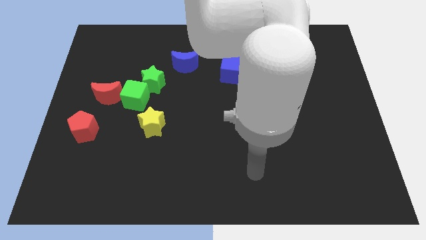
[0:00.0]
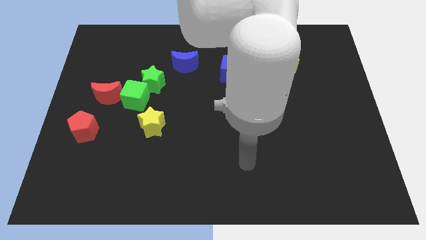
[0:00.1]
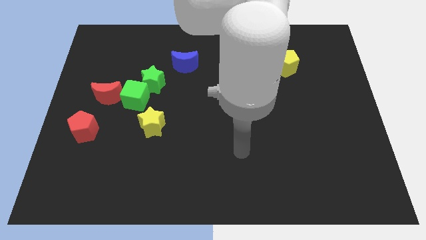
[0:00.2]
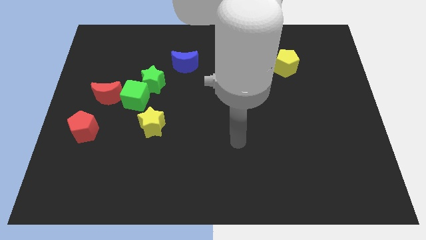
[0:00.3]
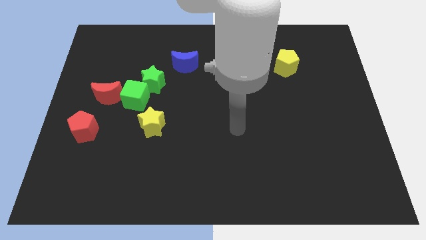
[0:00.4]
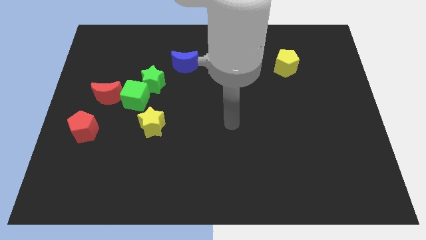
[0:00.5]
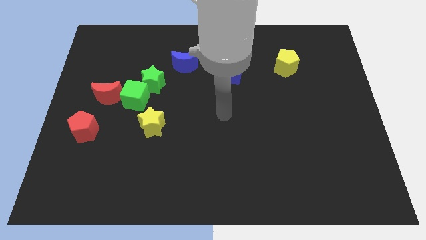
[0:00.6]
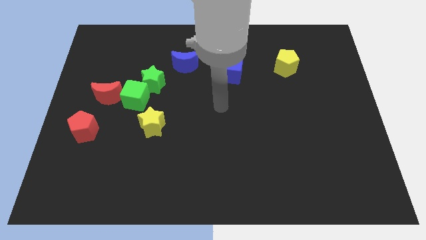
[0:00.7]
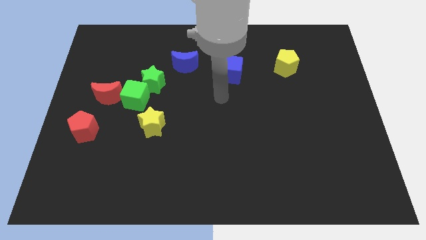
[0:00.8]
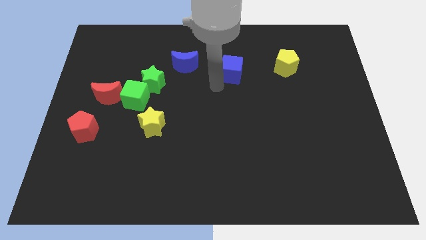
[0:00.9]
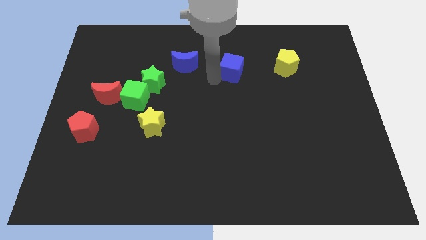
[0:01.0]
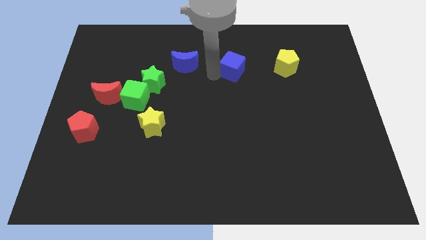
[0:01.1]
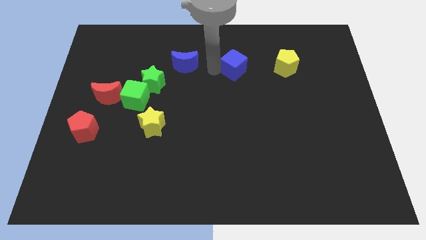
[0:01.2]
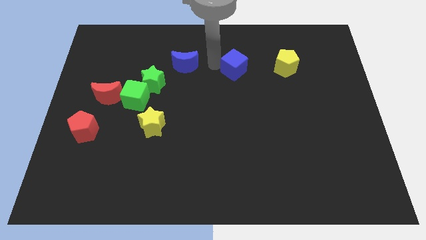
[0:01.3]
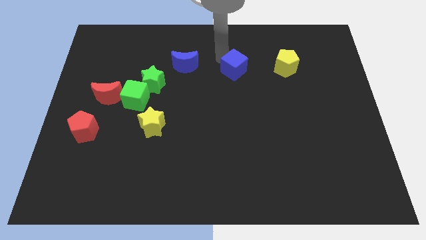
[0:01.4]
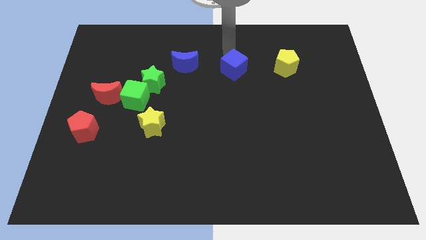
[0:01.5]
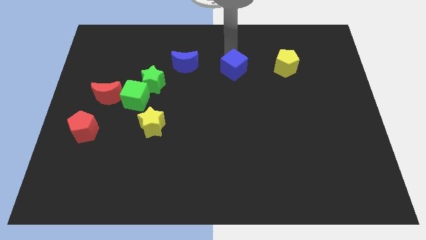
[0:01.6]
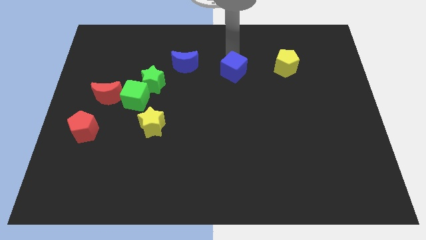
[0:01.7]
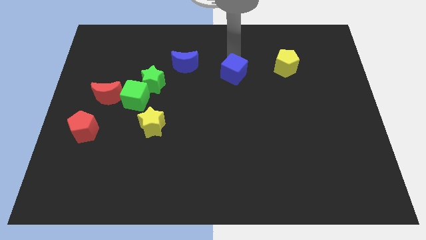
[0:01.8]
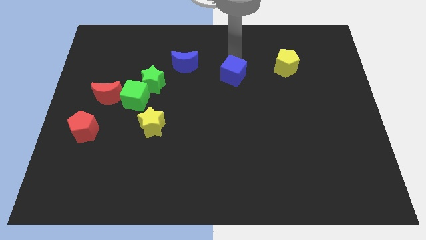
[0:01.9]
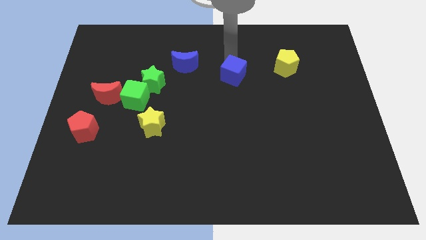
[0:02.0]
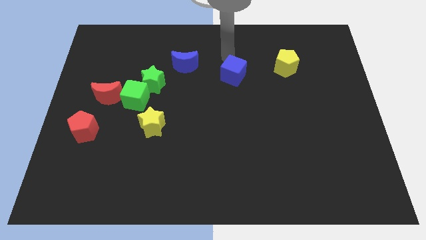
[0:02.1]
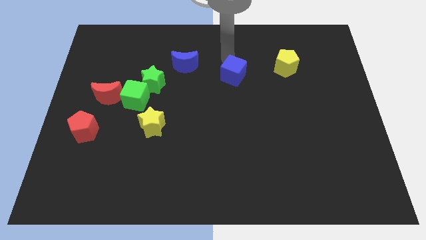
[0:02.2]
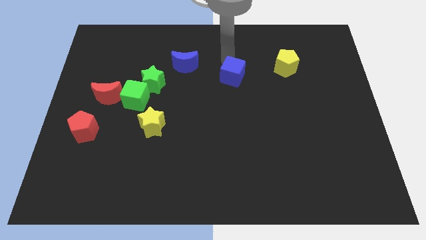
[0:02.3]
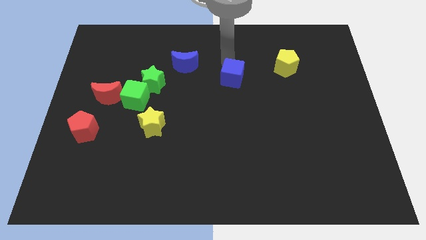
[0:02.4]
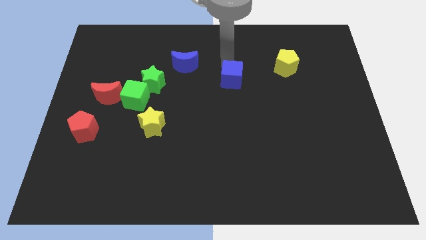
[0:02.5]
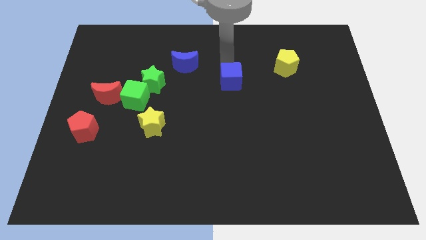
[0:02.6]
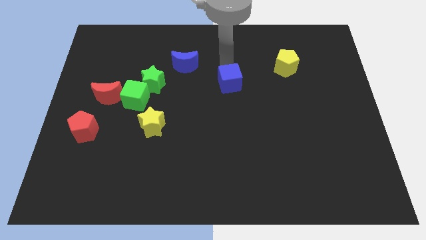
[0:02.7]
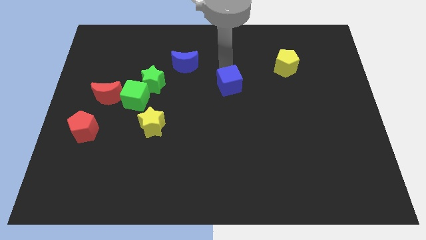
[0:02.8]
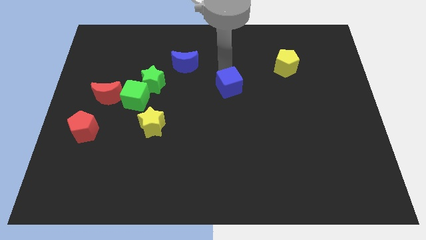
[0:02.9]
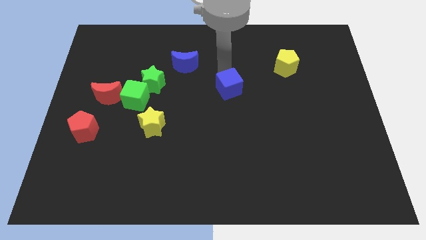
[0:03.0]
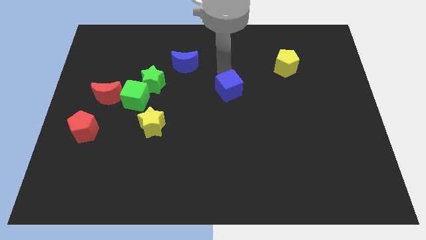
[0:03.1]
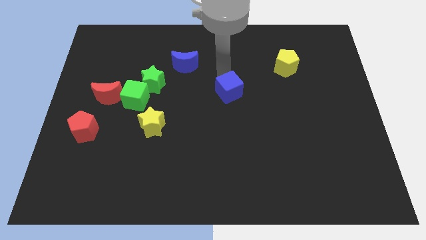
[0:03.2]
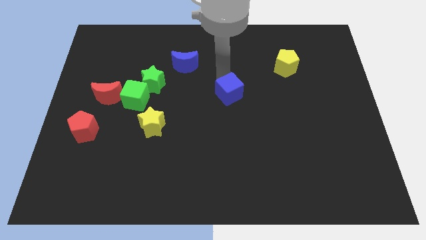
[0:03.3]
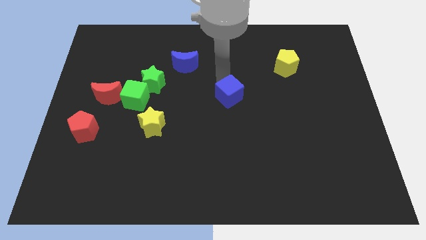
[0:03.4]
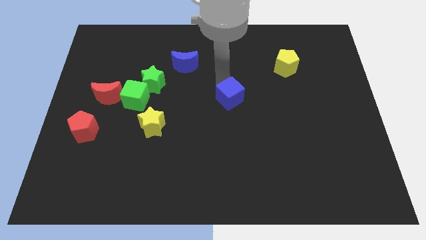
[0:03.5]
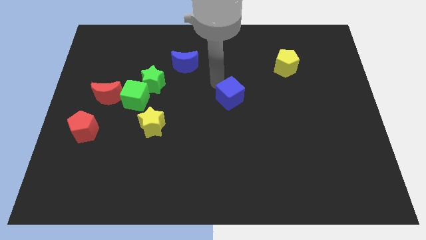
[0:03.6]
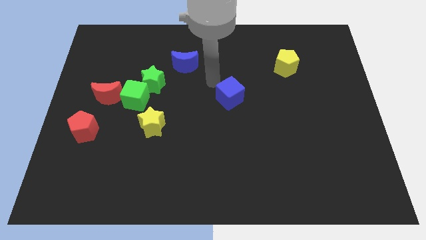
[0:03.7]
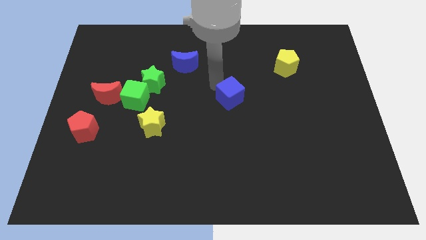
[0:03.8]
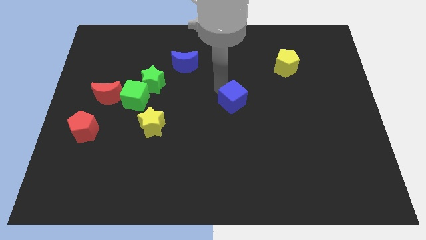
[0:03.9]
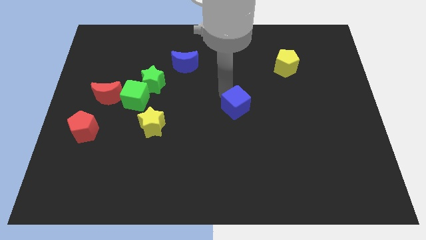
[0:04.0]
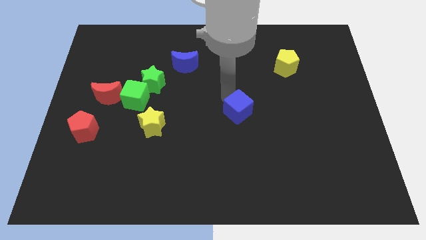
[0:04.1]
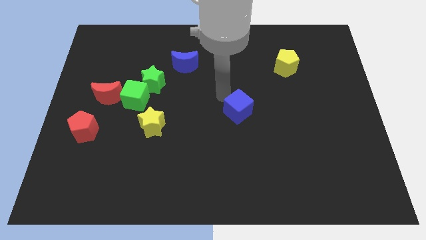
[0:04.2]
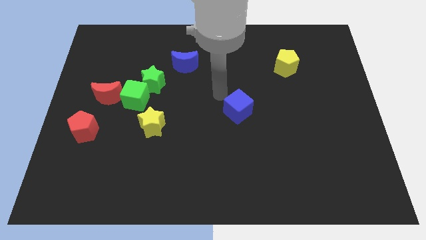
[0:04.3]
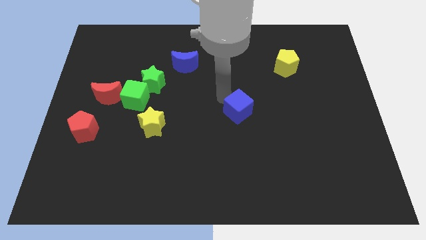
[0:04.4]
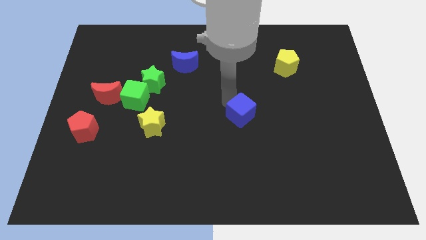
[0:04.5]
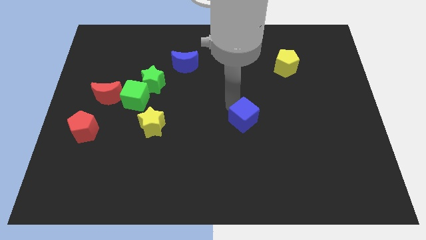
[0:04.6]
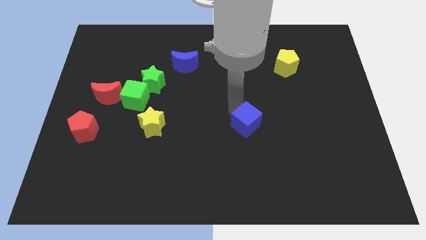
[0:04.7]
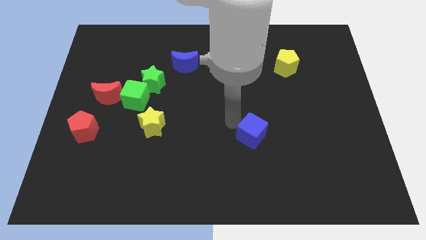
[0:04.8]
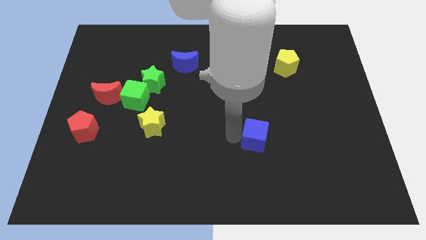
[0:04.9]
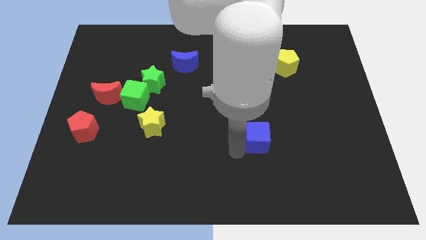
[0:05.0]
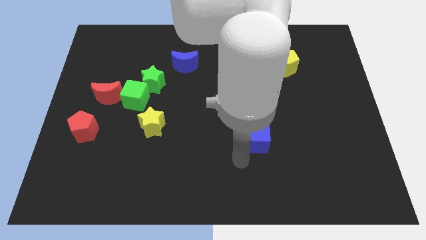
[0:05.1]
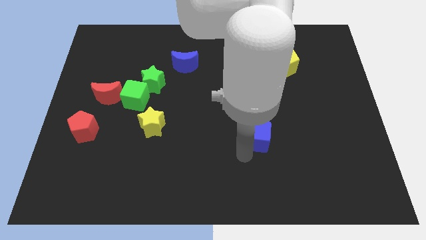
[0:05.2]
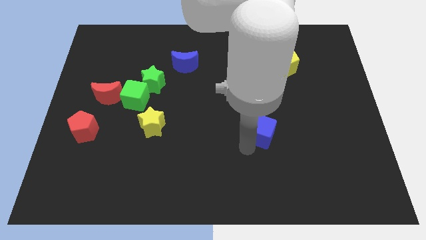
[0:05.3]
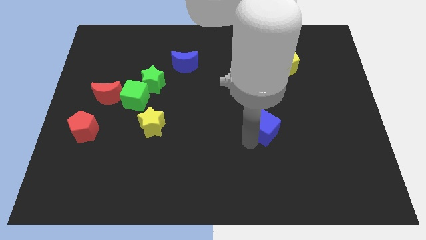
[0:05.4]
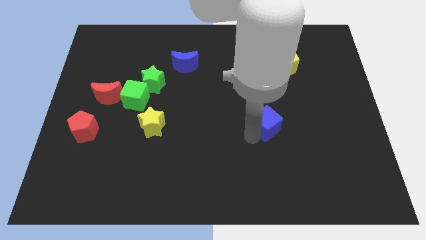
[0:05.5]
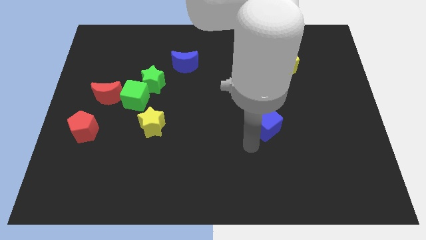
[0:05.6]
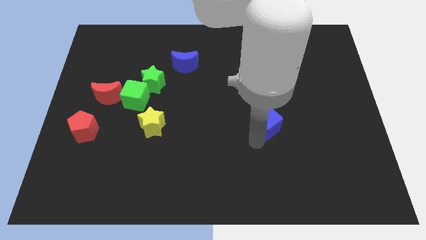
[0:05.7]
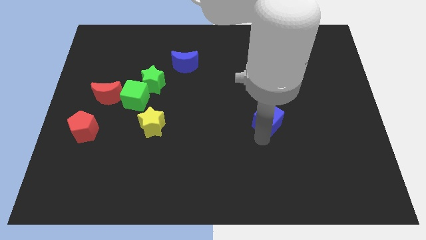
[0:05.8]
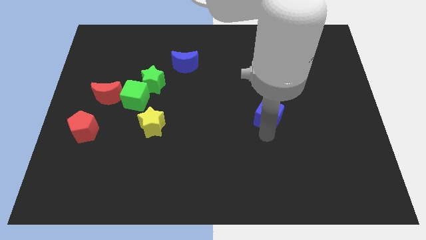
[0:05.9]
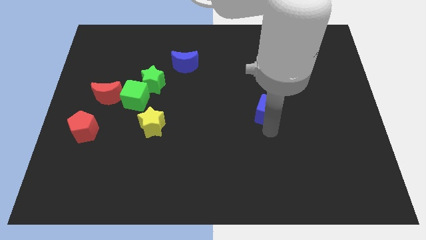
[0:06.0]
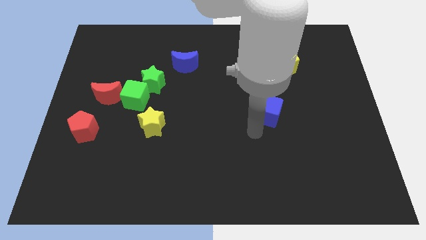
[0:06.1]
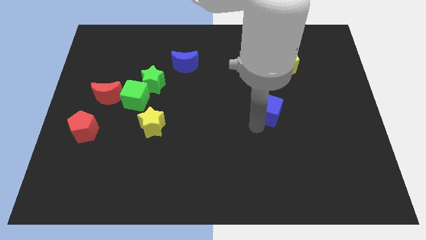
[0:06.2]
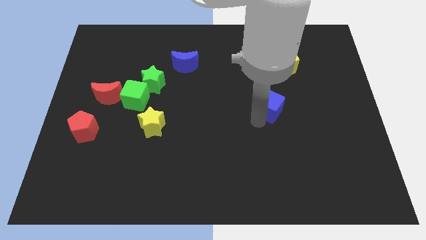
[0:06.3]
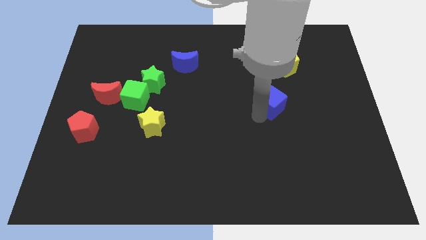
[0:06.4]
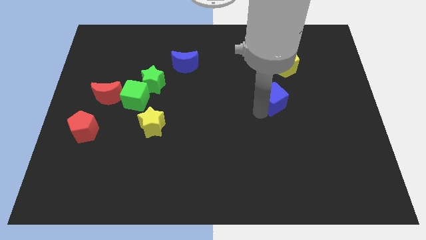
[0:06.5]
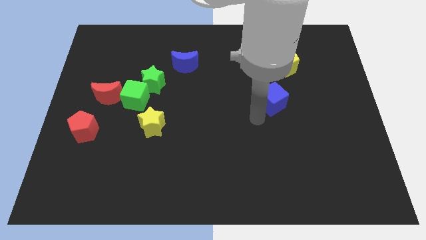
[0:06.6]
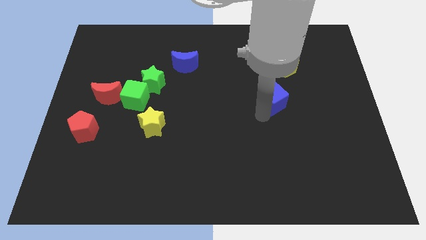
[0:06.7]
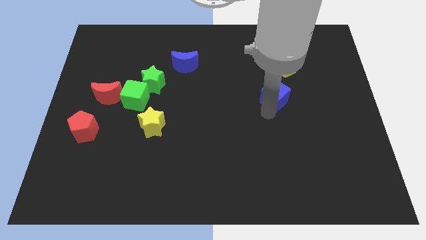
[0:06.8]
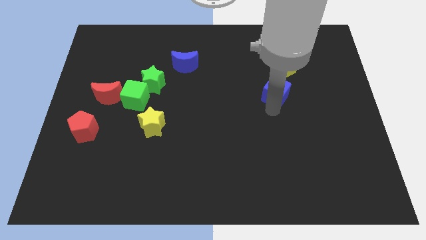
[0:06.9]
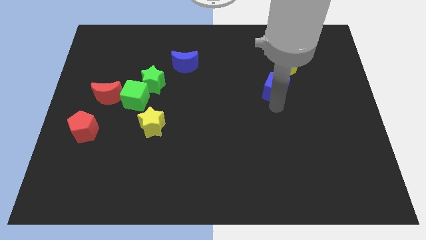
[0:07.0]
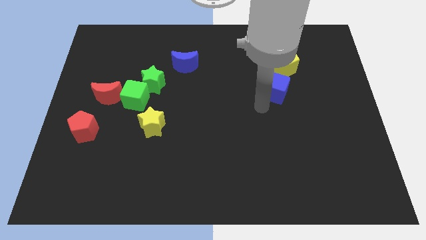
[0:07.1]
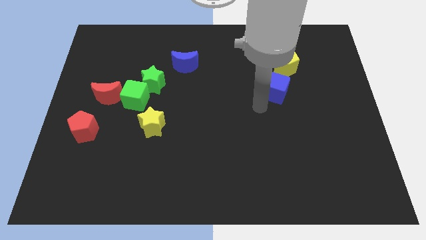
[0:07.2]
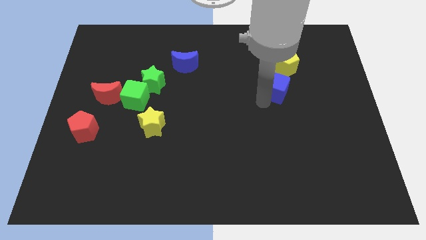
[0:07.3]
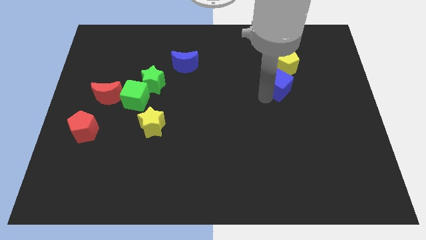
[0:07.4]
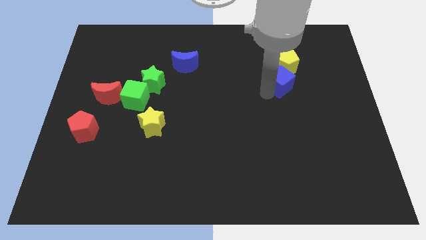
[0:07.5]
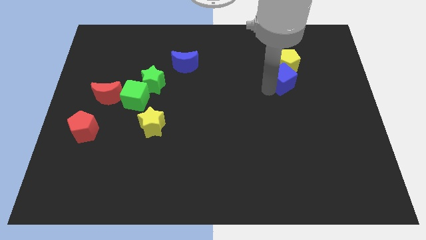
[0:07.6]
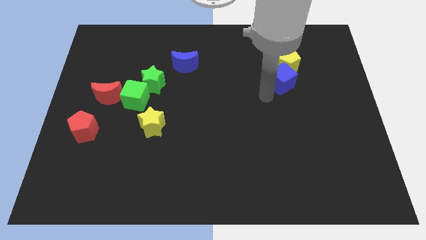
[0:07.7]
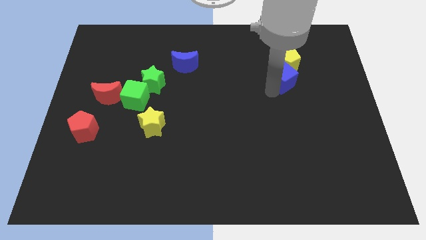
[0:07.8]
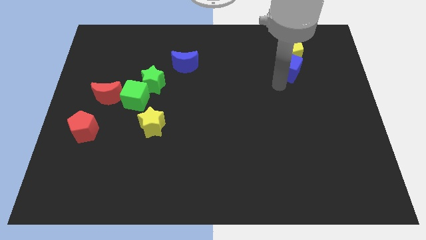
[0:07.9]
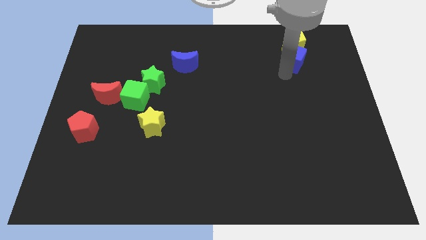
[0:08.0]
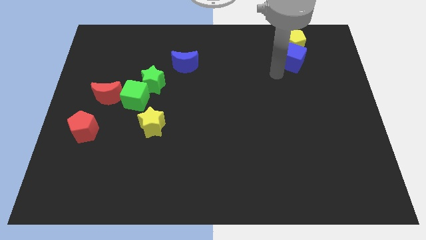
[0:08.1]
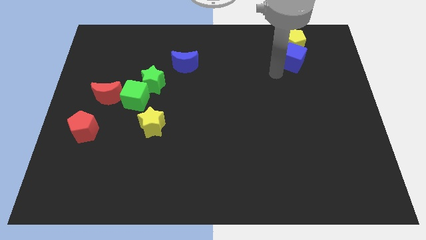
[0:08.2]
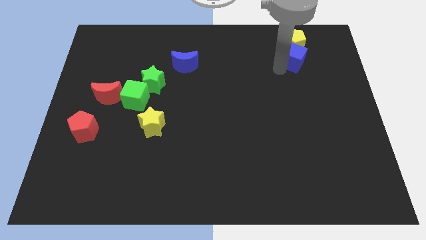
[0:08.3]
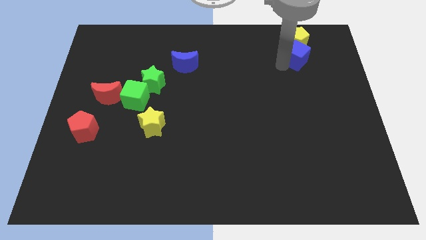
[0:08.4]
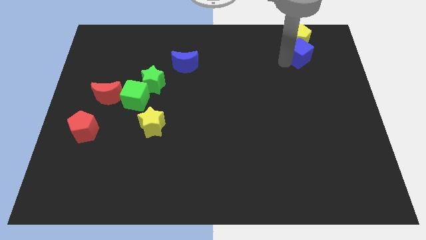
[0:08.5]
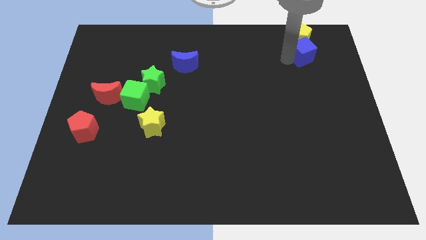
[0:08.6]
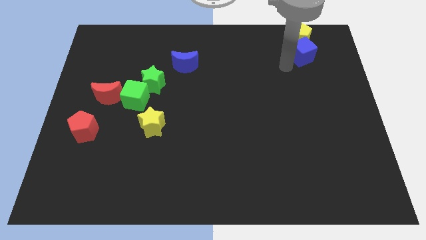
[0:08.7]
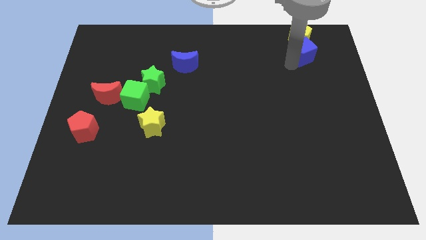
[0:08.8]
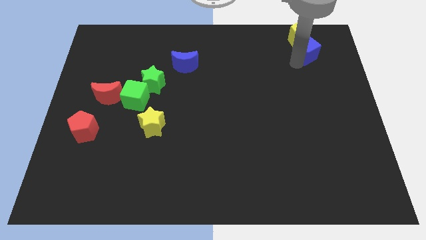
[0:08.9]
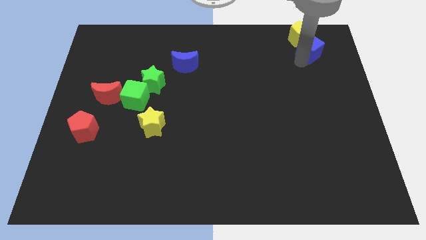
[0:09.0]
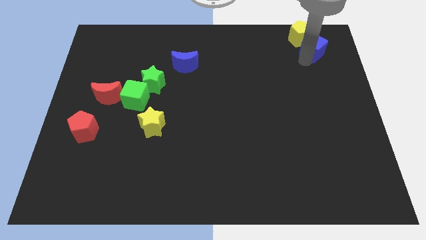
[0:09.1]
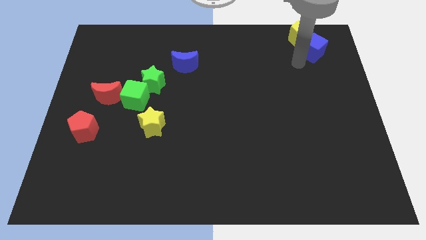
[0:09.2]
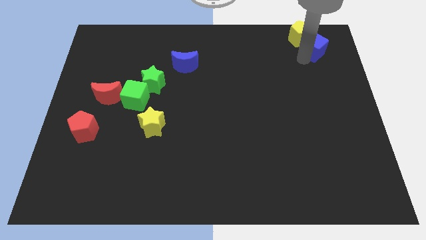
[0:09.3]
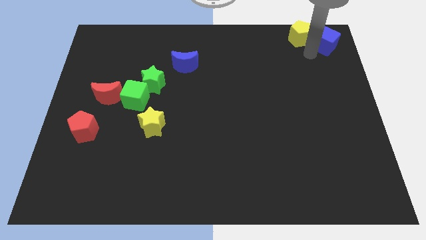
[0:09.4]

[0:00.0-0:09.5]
put the blue cube to the upper right corner
